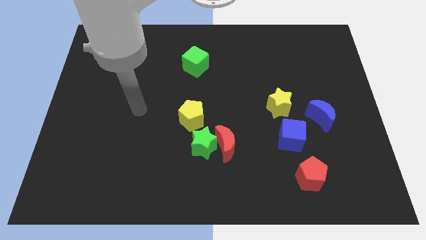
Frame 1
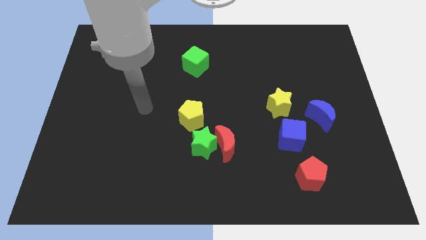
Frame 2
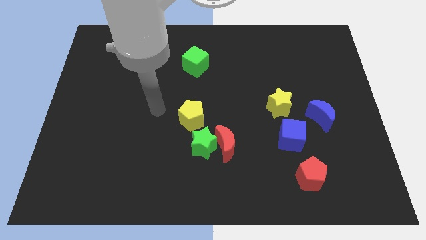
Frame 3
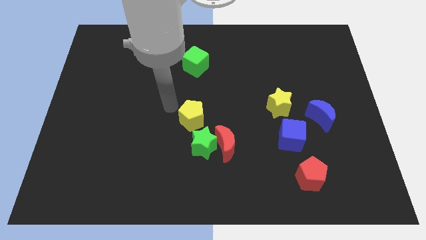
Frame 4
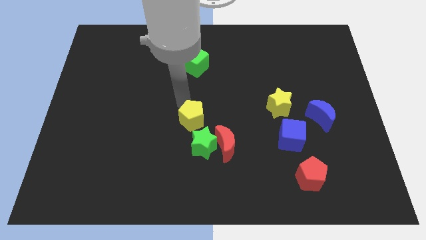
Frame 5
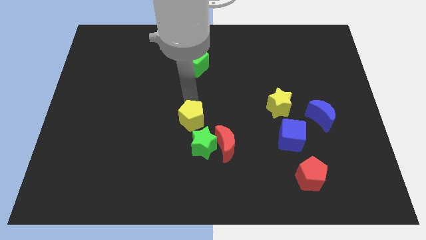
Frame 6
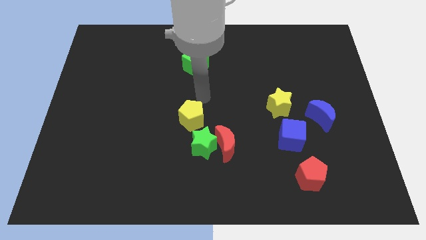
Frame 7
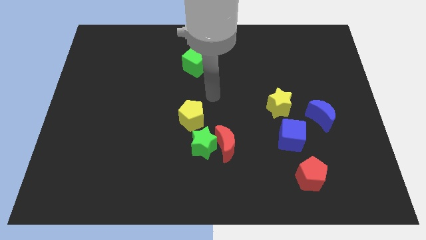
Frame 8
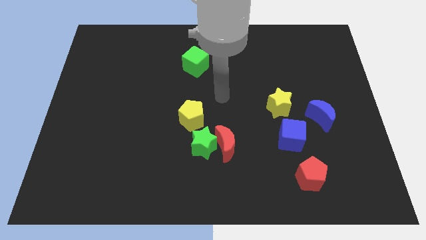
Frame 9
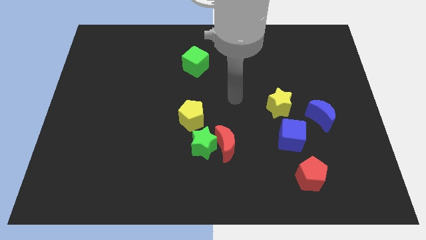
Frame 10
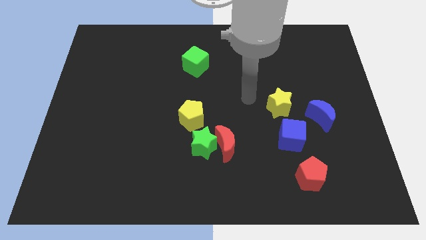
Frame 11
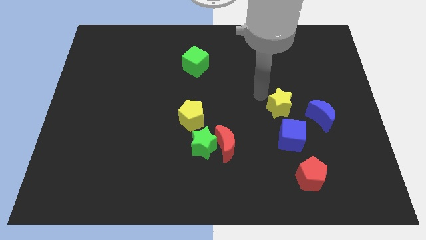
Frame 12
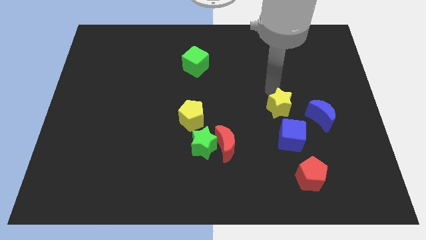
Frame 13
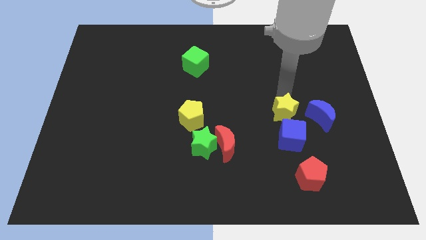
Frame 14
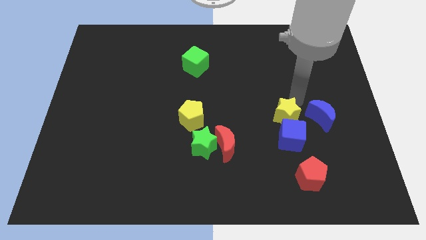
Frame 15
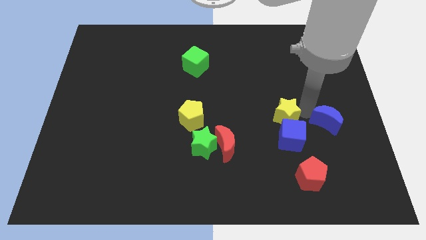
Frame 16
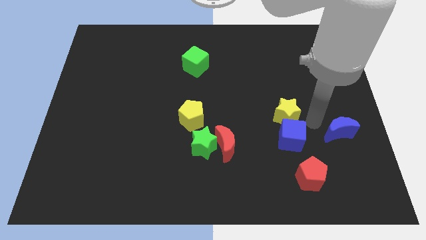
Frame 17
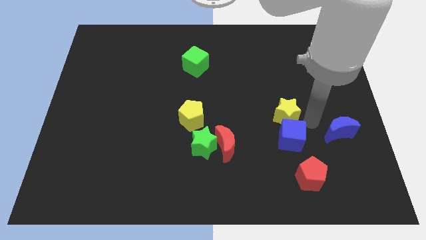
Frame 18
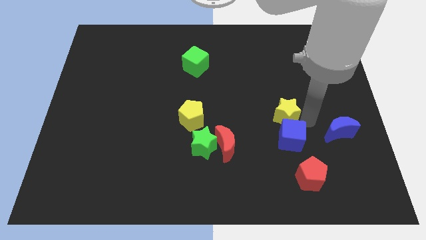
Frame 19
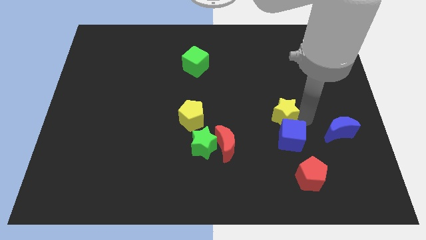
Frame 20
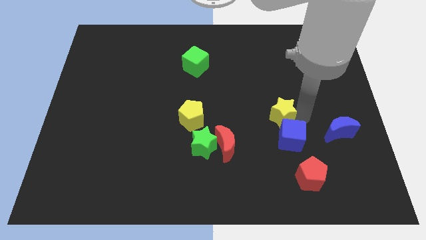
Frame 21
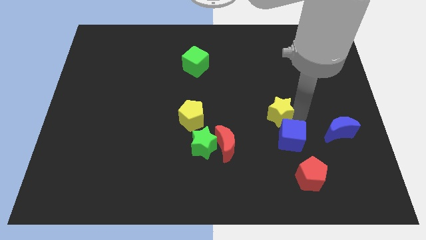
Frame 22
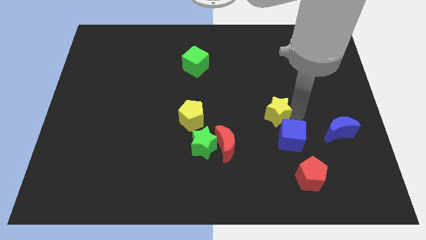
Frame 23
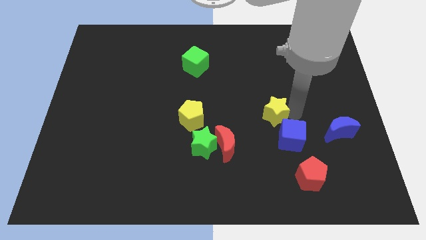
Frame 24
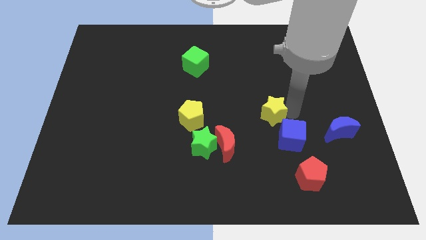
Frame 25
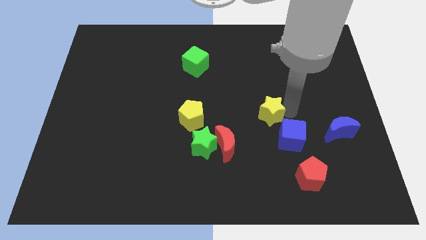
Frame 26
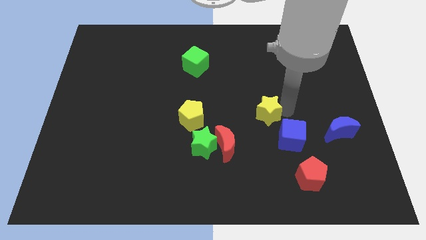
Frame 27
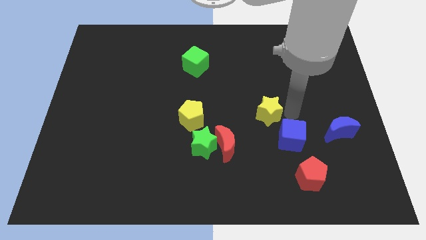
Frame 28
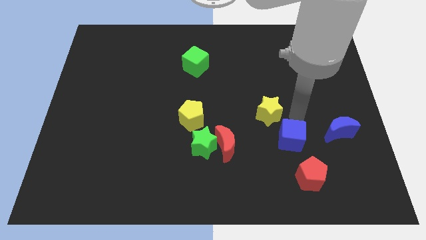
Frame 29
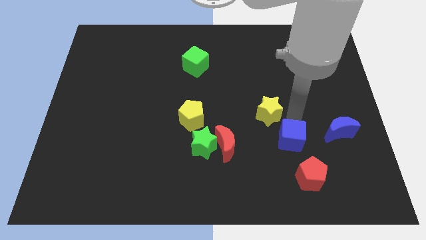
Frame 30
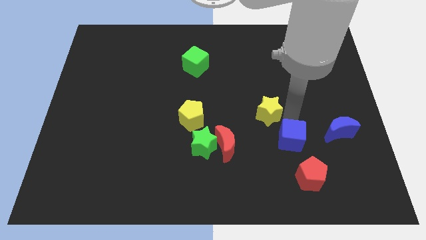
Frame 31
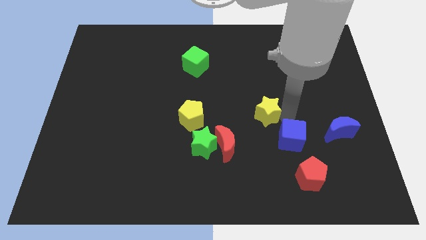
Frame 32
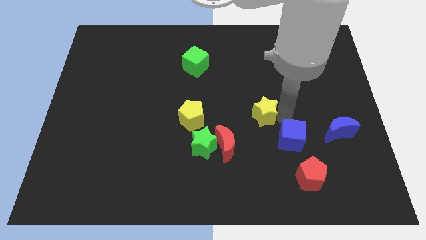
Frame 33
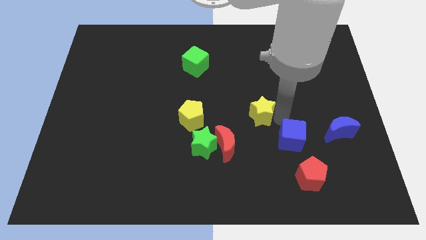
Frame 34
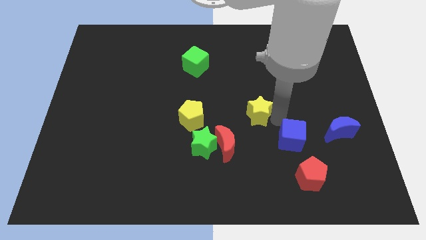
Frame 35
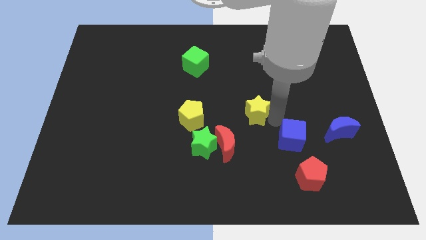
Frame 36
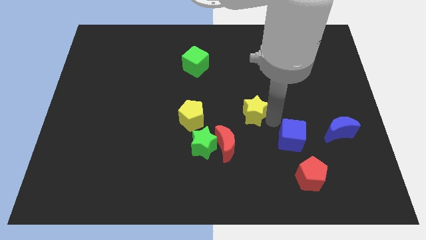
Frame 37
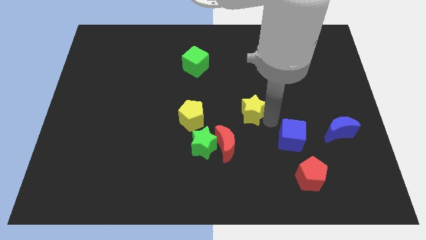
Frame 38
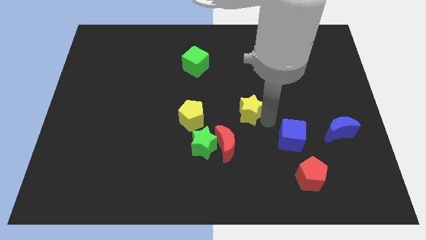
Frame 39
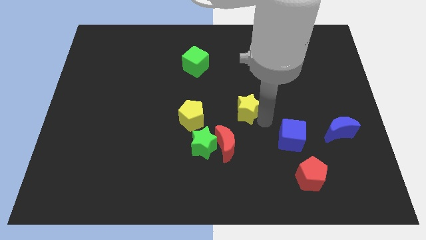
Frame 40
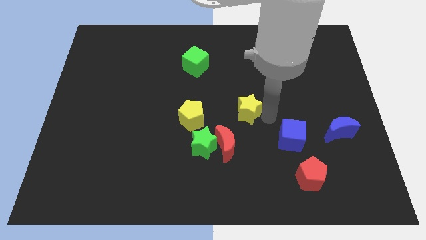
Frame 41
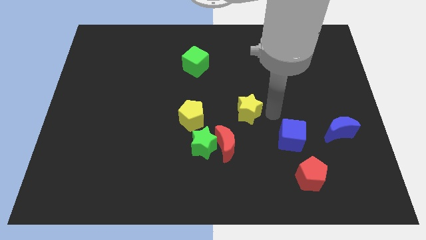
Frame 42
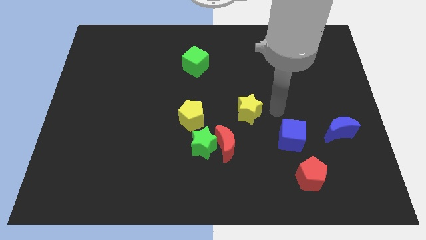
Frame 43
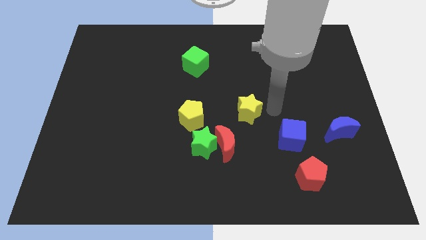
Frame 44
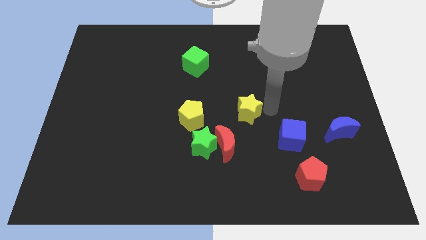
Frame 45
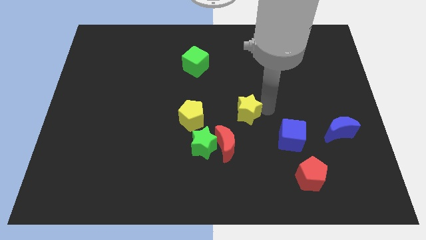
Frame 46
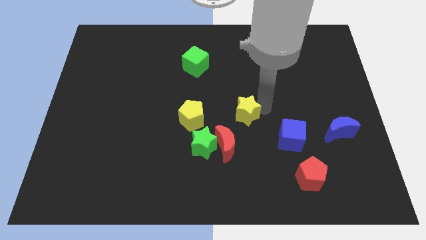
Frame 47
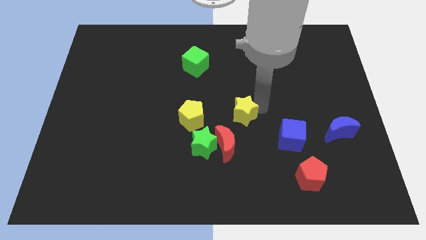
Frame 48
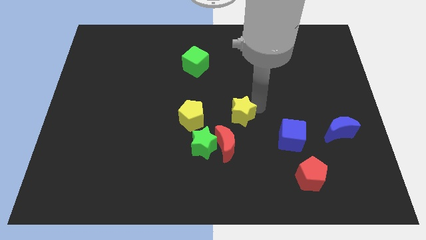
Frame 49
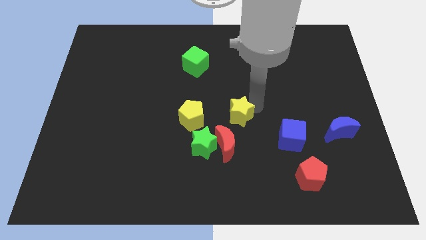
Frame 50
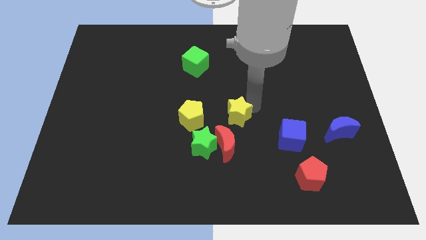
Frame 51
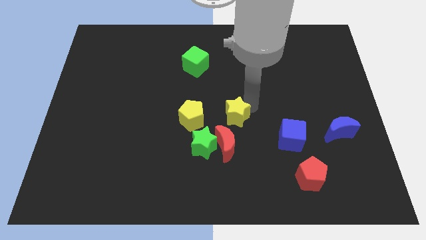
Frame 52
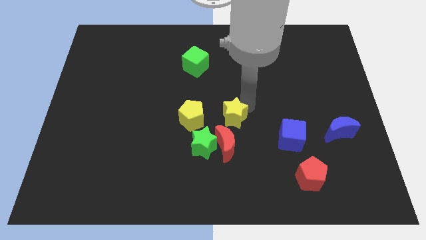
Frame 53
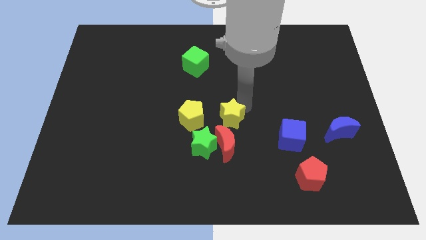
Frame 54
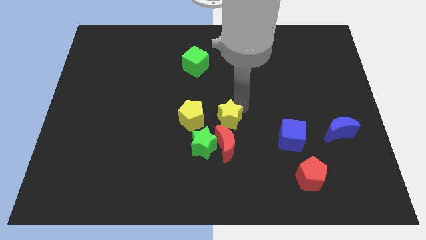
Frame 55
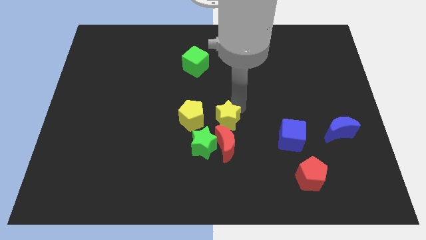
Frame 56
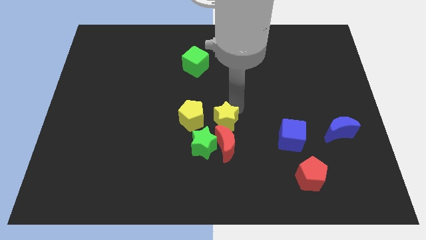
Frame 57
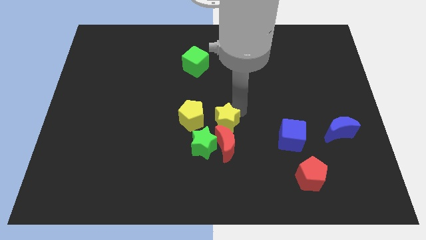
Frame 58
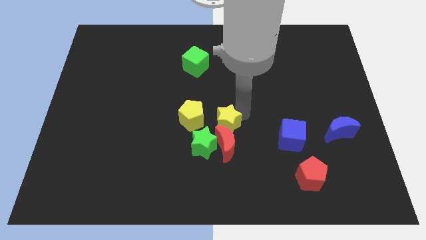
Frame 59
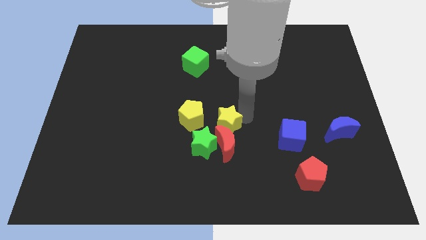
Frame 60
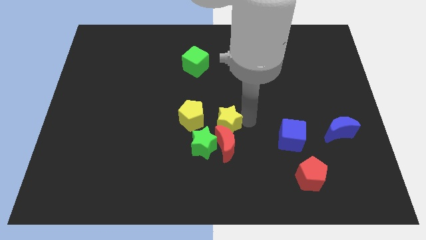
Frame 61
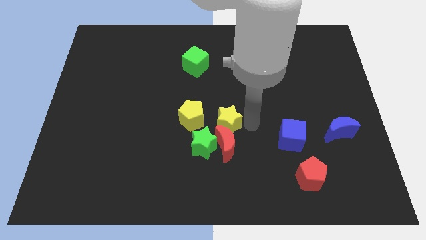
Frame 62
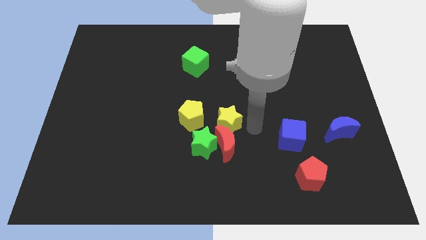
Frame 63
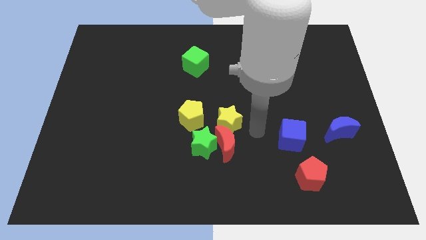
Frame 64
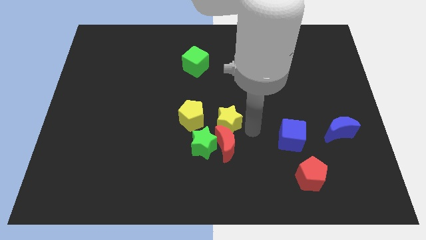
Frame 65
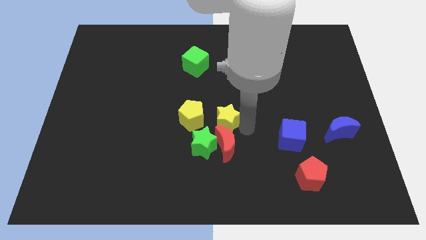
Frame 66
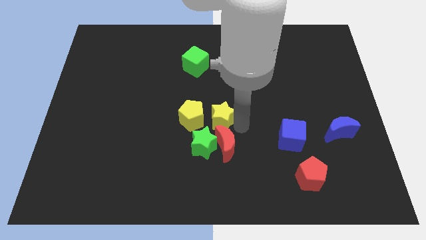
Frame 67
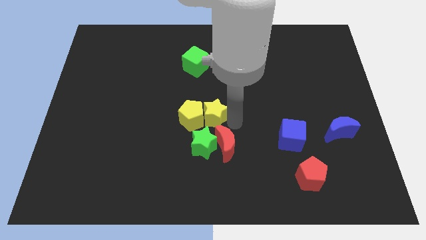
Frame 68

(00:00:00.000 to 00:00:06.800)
put the yellow star next to the yellow pentagon

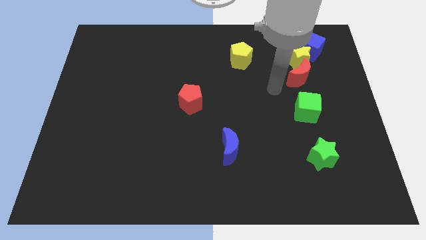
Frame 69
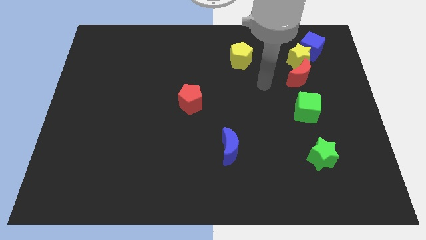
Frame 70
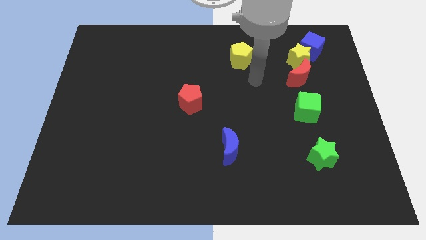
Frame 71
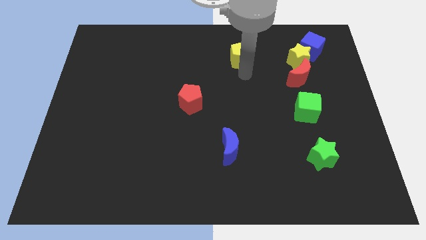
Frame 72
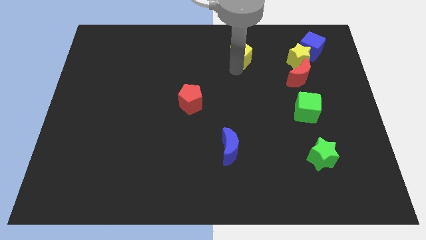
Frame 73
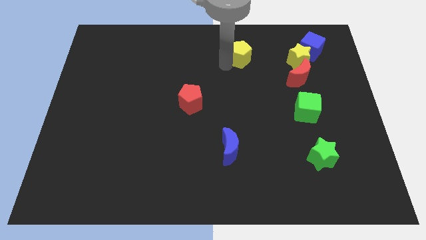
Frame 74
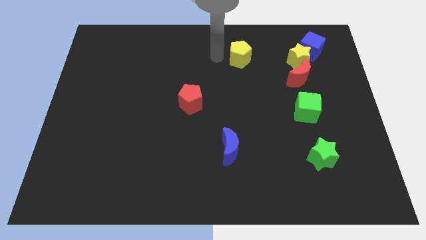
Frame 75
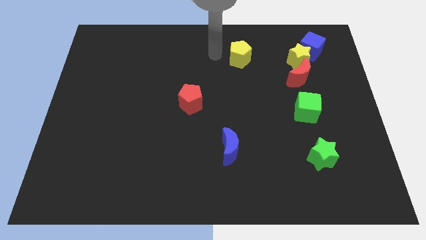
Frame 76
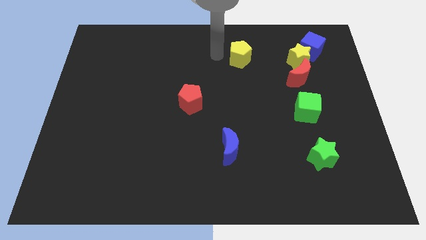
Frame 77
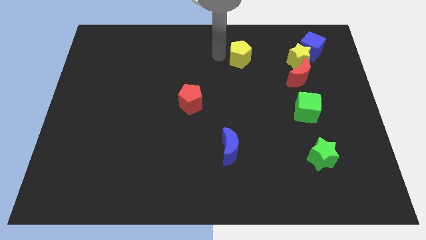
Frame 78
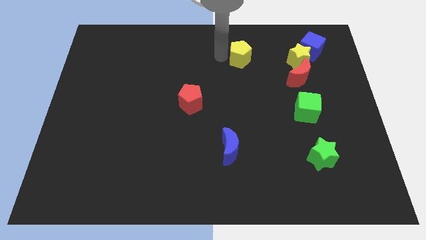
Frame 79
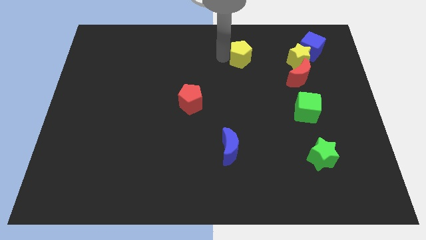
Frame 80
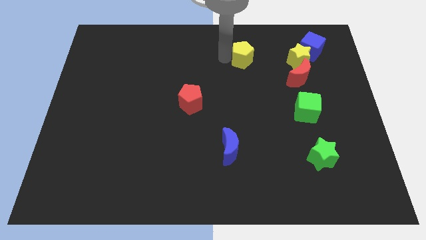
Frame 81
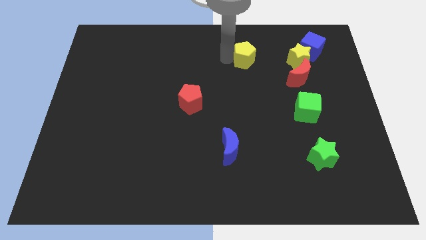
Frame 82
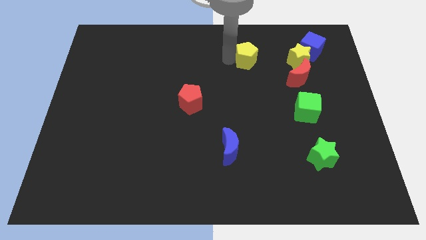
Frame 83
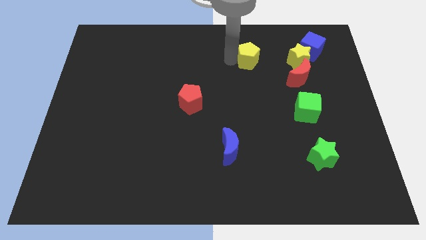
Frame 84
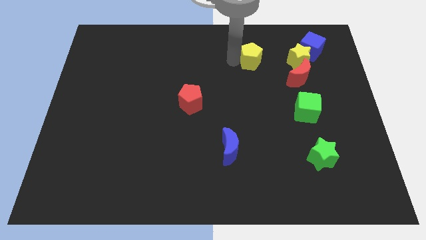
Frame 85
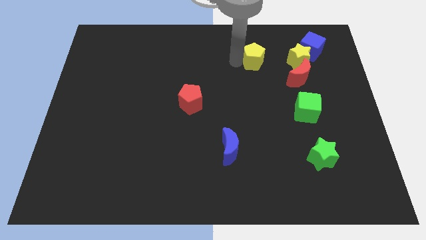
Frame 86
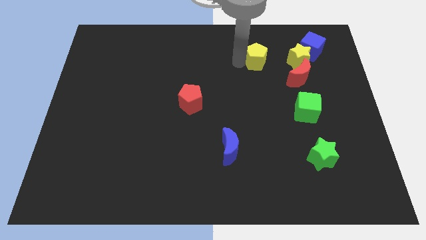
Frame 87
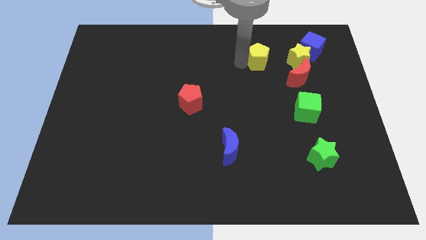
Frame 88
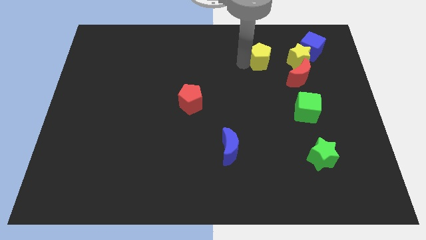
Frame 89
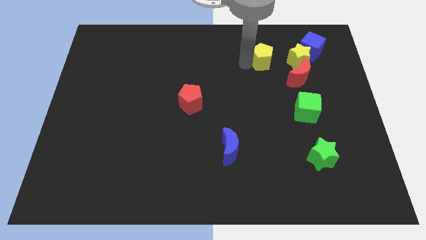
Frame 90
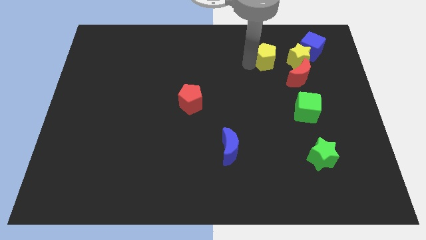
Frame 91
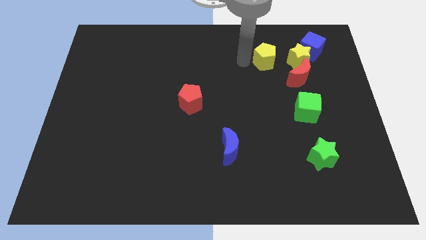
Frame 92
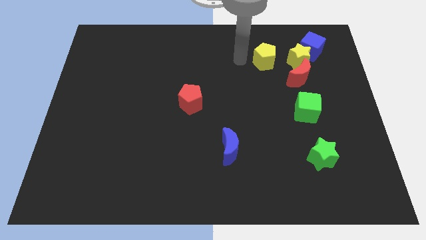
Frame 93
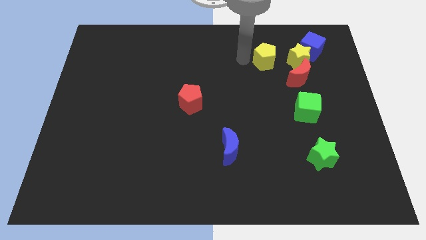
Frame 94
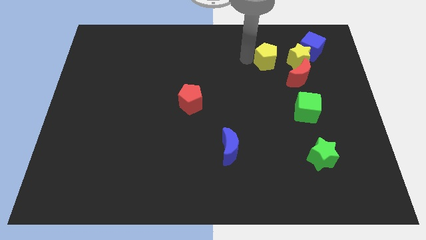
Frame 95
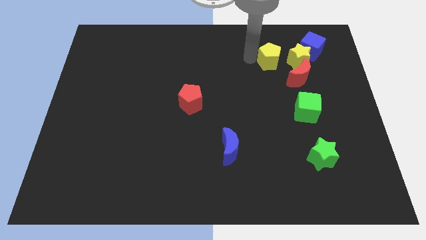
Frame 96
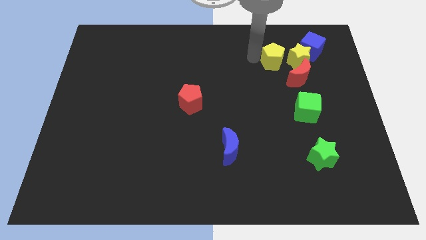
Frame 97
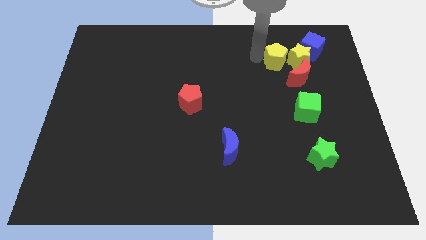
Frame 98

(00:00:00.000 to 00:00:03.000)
put the yellow pentagon to the yellow star
